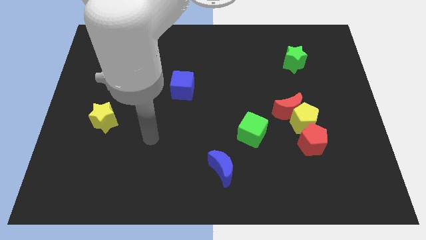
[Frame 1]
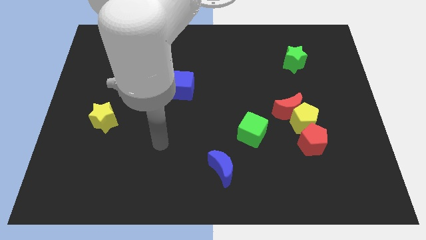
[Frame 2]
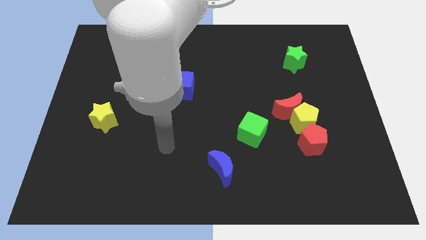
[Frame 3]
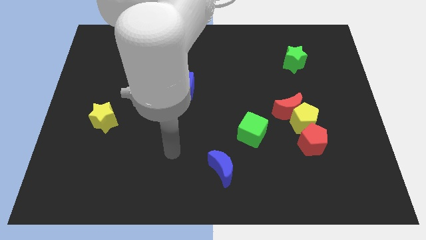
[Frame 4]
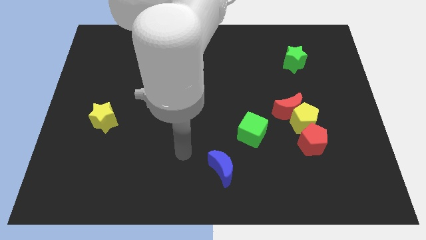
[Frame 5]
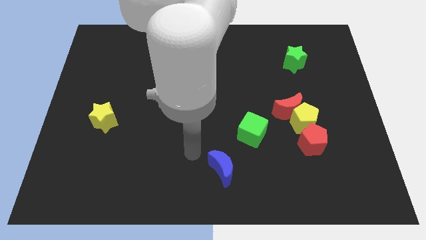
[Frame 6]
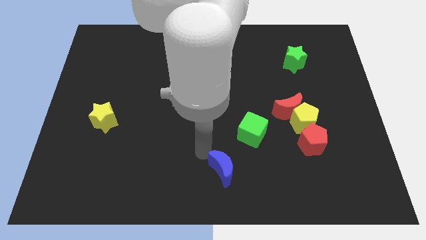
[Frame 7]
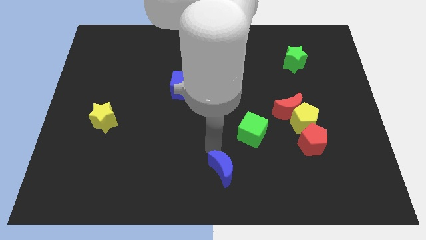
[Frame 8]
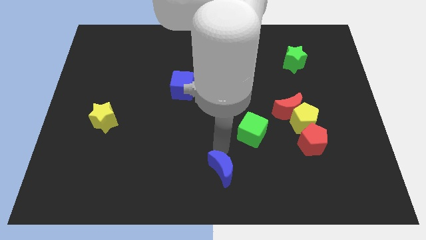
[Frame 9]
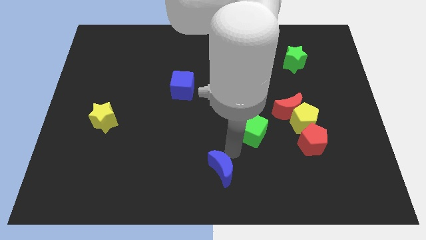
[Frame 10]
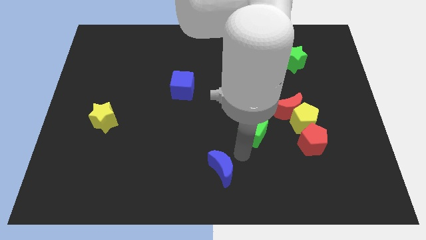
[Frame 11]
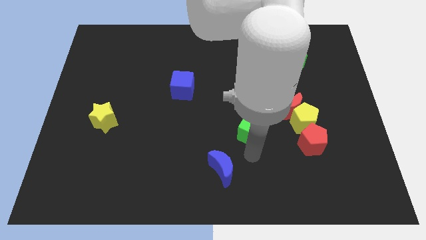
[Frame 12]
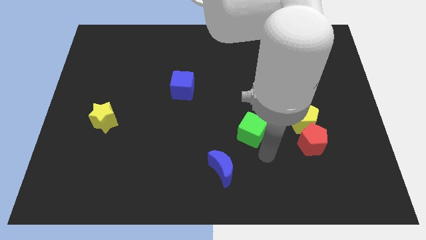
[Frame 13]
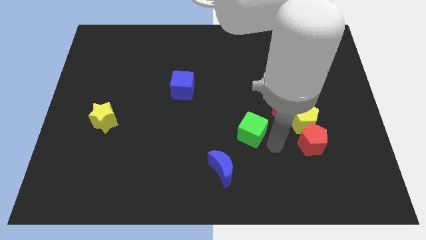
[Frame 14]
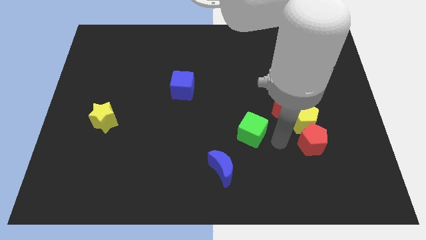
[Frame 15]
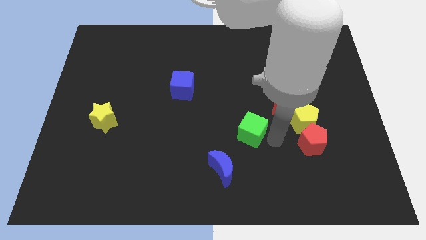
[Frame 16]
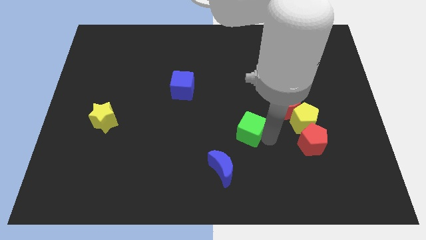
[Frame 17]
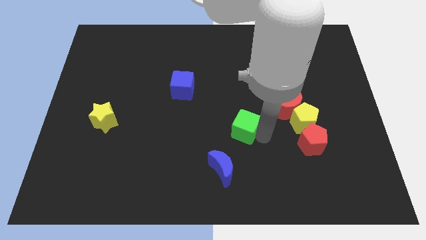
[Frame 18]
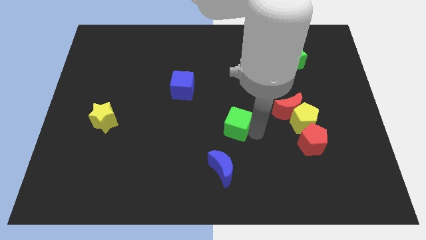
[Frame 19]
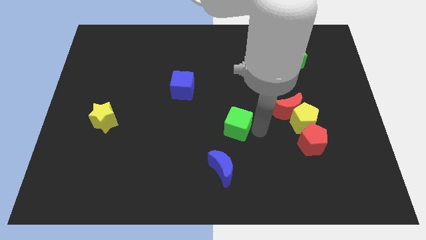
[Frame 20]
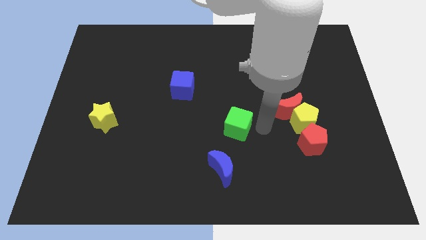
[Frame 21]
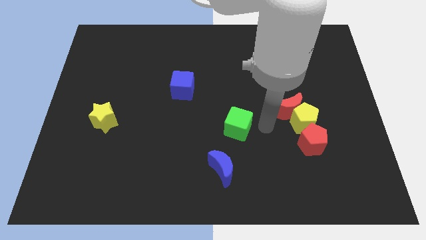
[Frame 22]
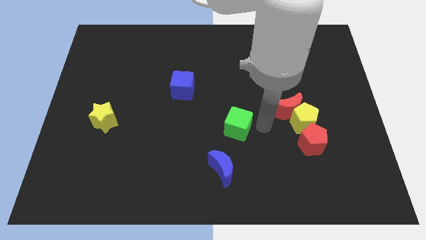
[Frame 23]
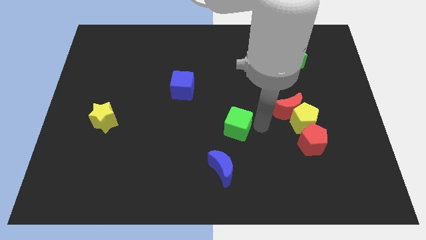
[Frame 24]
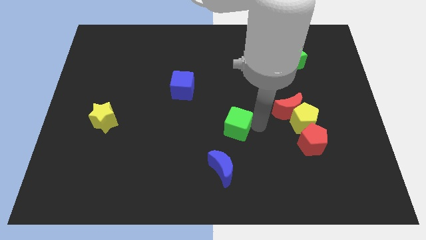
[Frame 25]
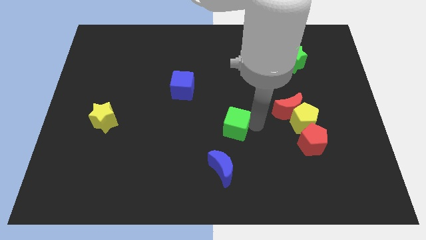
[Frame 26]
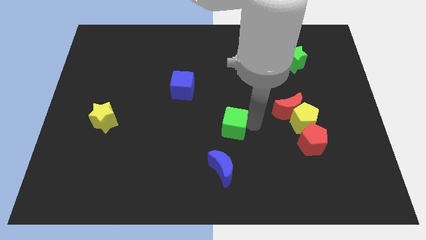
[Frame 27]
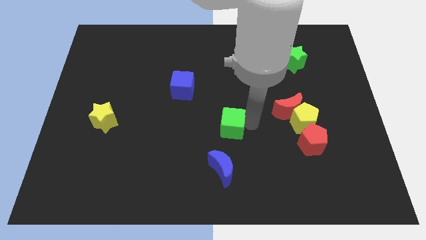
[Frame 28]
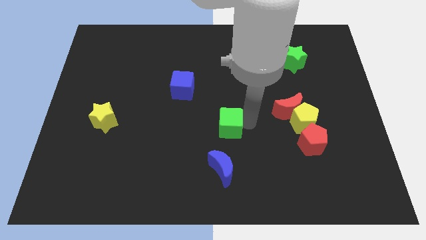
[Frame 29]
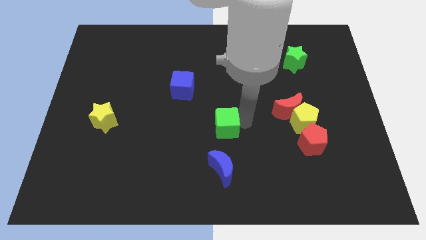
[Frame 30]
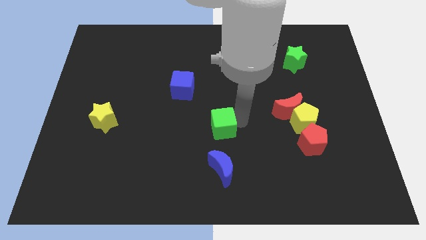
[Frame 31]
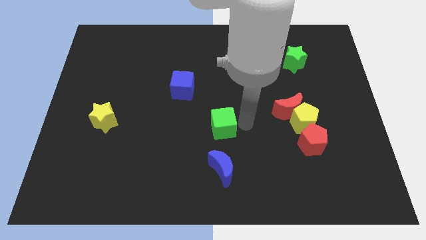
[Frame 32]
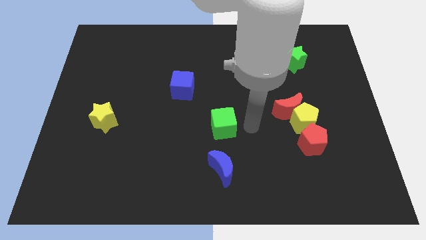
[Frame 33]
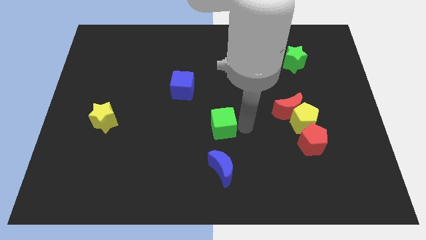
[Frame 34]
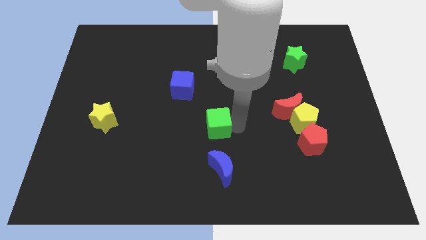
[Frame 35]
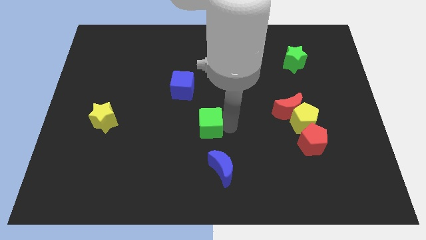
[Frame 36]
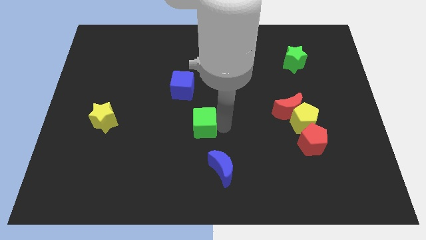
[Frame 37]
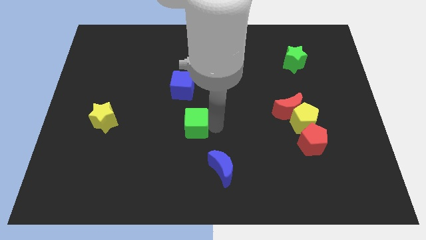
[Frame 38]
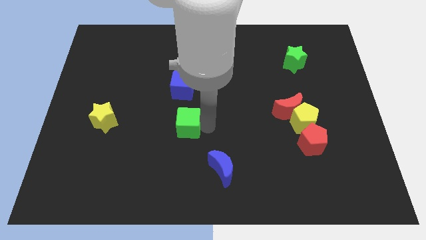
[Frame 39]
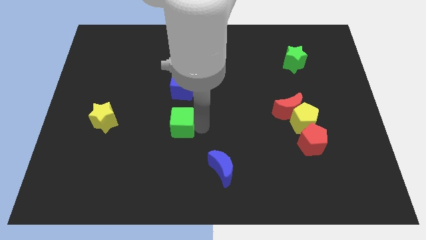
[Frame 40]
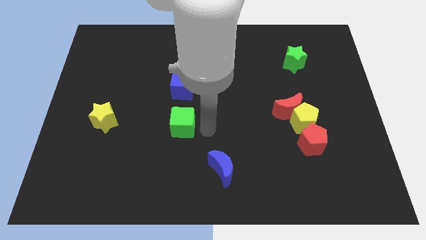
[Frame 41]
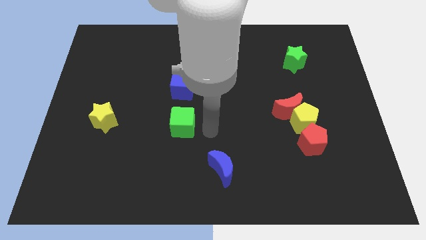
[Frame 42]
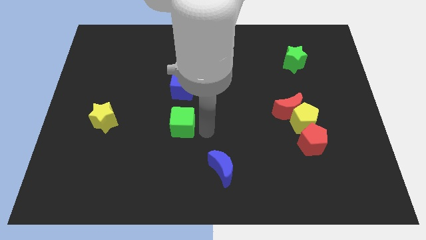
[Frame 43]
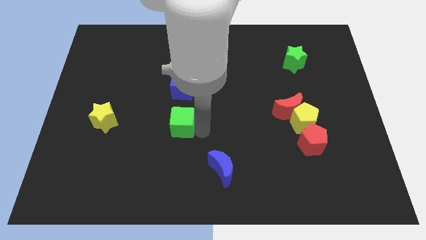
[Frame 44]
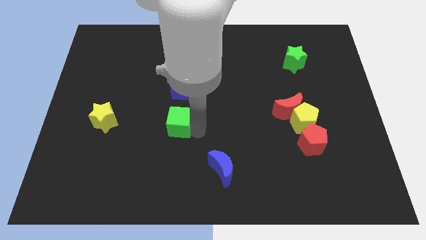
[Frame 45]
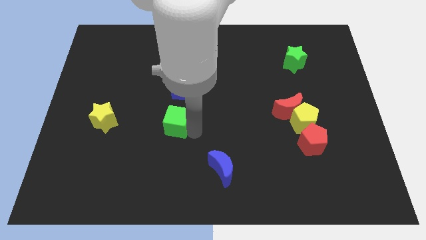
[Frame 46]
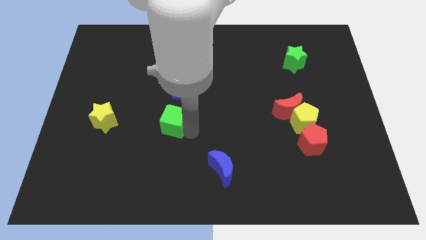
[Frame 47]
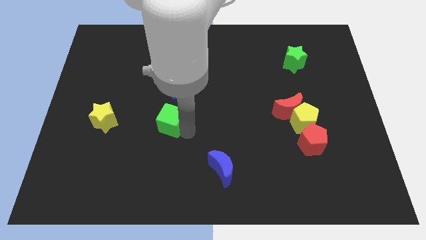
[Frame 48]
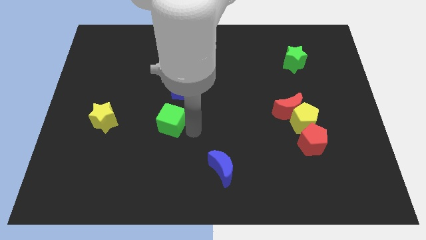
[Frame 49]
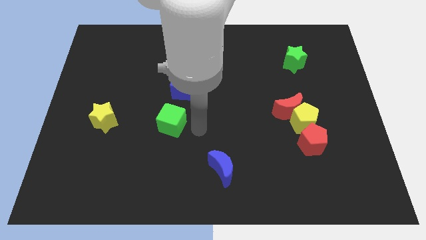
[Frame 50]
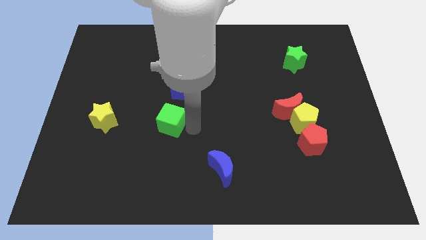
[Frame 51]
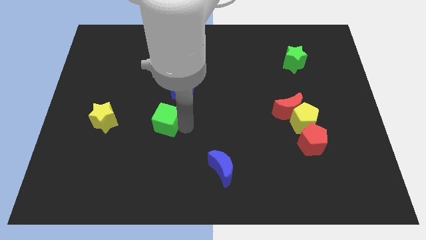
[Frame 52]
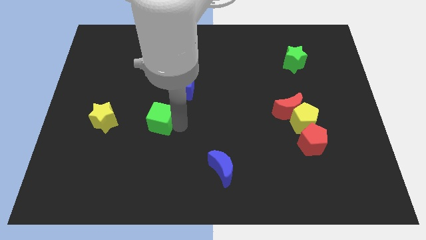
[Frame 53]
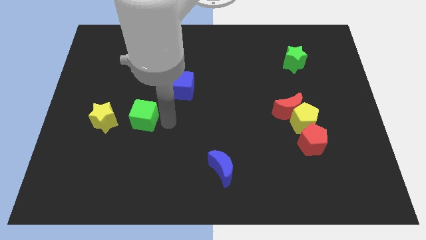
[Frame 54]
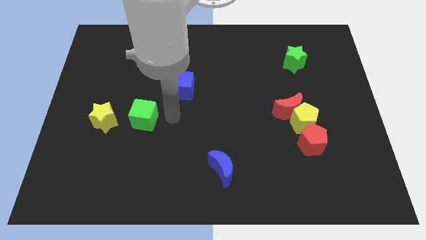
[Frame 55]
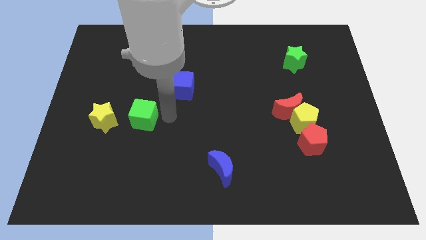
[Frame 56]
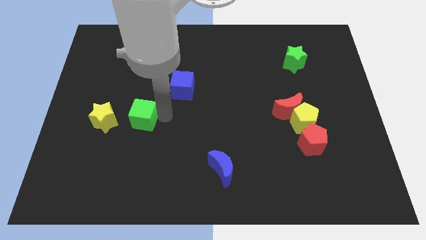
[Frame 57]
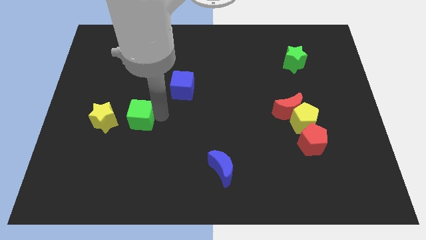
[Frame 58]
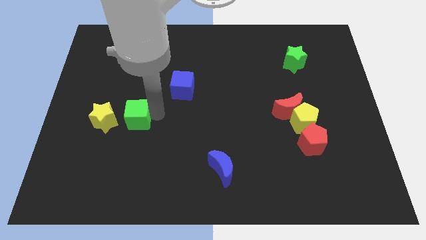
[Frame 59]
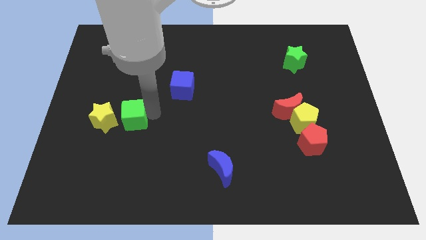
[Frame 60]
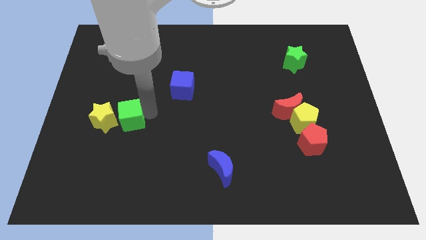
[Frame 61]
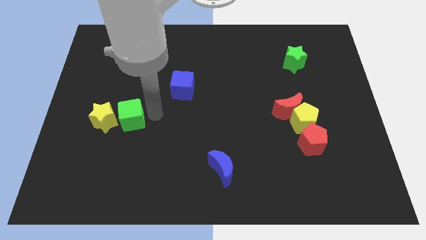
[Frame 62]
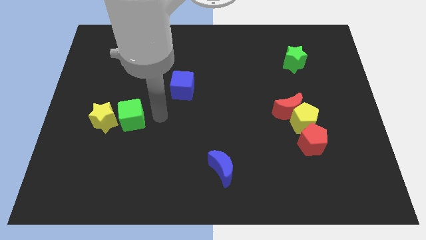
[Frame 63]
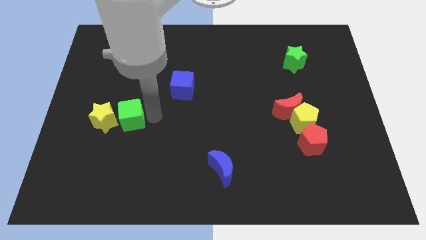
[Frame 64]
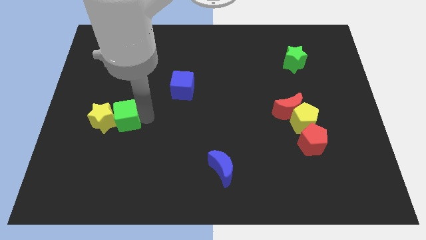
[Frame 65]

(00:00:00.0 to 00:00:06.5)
move the green cube to the yellow star

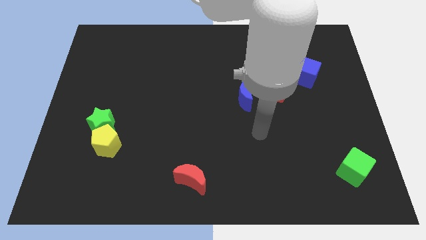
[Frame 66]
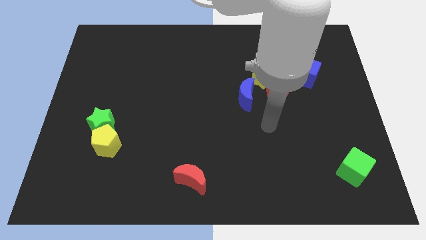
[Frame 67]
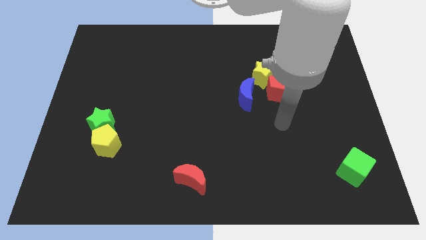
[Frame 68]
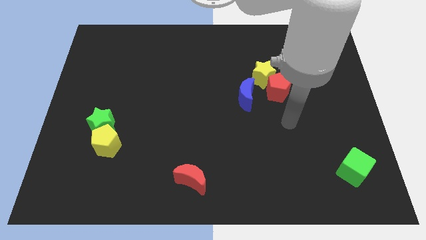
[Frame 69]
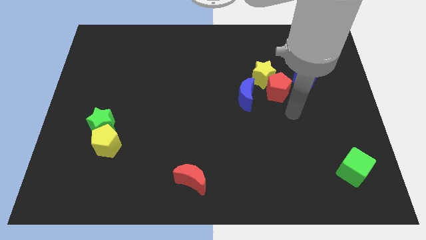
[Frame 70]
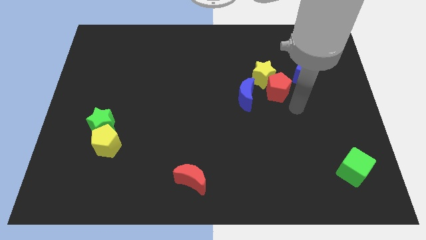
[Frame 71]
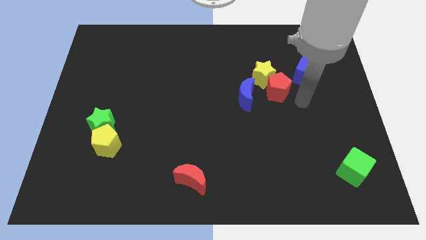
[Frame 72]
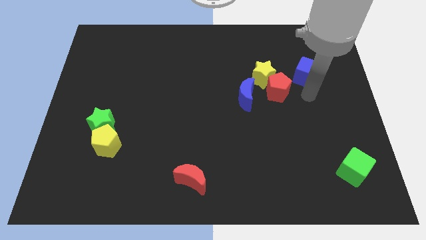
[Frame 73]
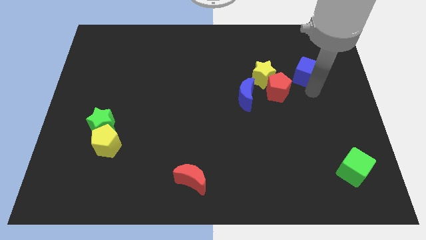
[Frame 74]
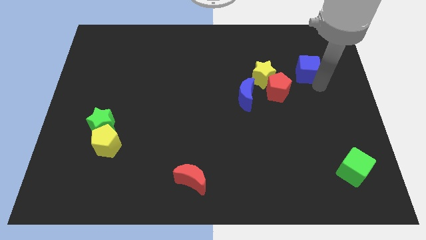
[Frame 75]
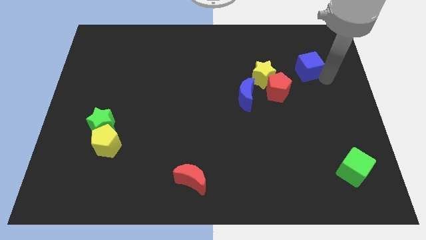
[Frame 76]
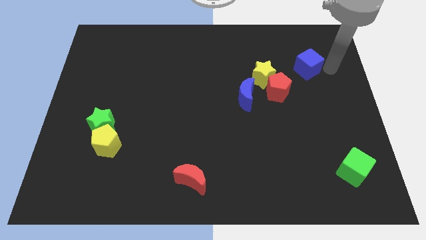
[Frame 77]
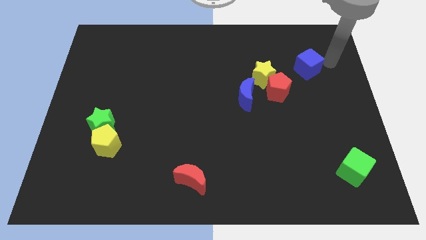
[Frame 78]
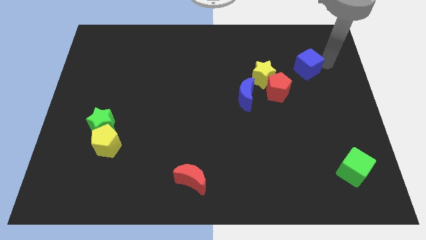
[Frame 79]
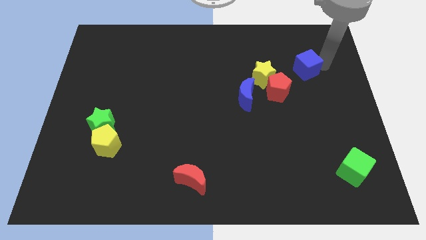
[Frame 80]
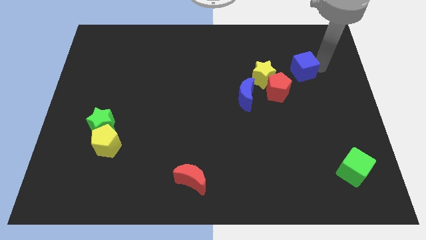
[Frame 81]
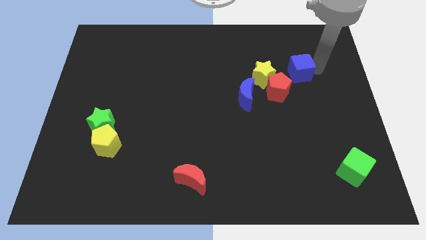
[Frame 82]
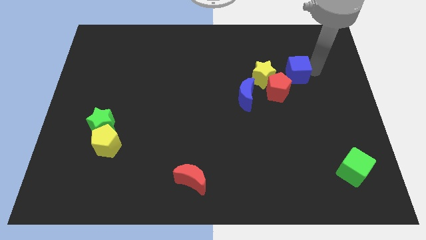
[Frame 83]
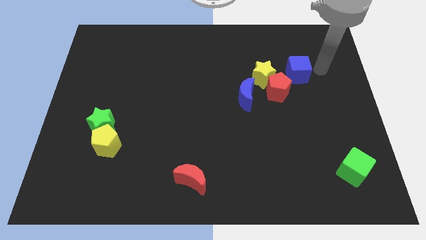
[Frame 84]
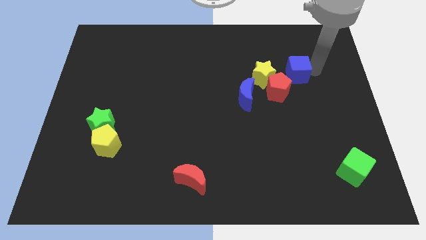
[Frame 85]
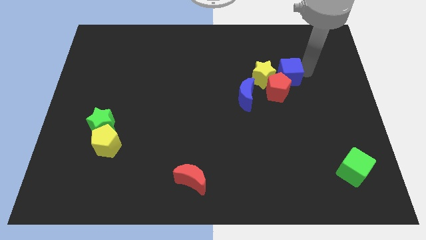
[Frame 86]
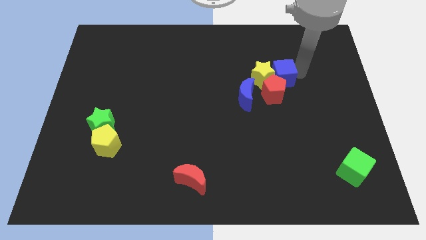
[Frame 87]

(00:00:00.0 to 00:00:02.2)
move the blue cube next to the yellow star
